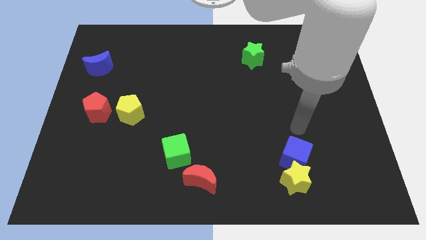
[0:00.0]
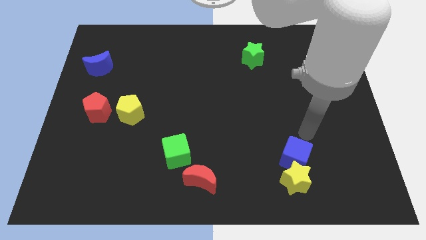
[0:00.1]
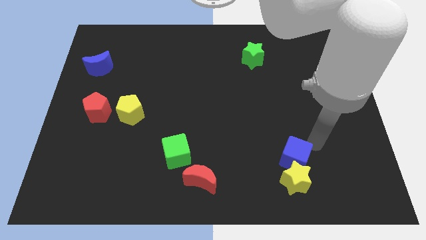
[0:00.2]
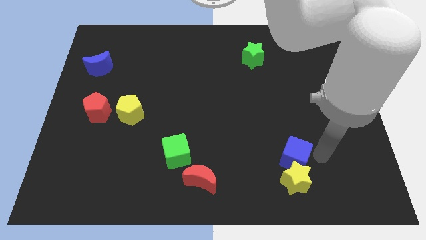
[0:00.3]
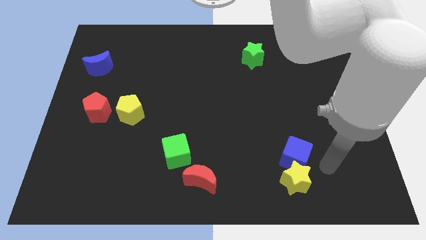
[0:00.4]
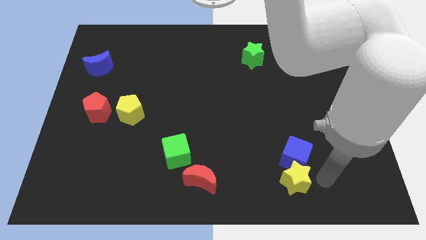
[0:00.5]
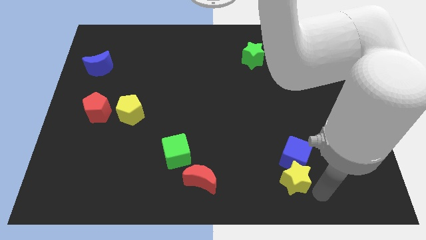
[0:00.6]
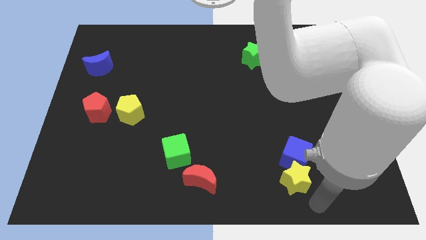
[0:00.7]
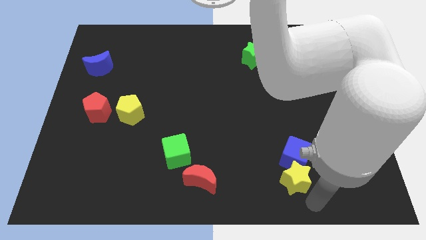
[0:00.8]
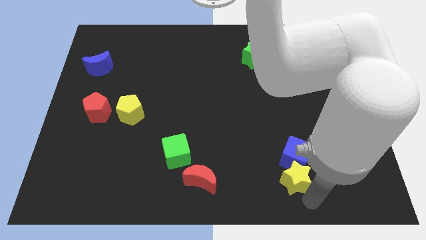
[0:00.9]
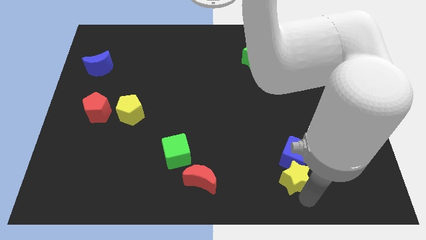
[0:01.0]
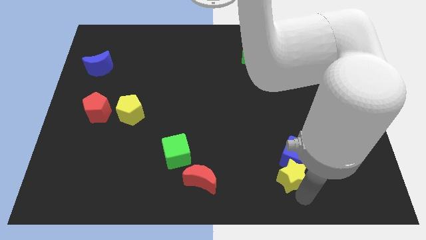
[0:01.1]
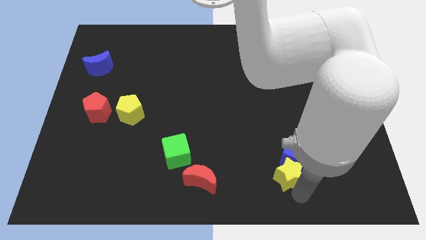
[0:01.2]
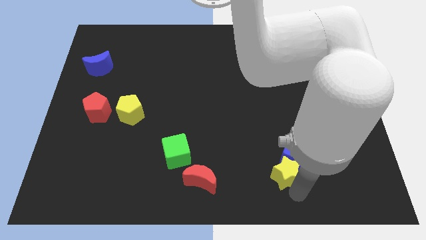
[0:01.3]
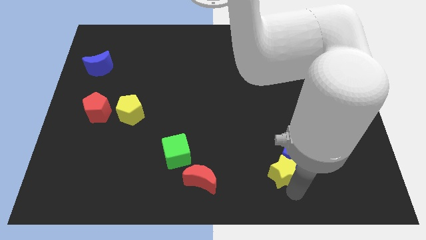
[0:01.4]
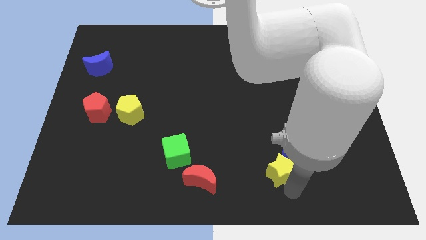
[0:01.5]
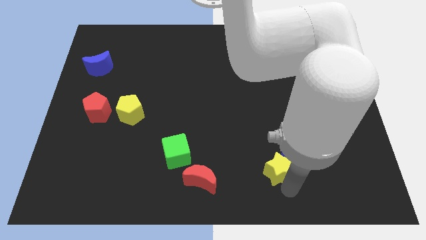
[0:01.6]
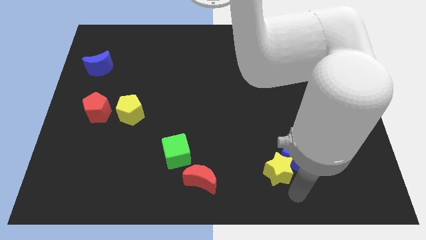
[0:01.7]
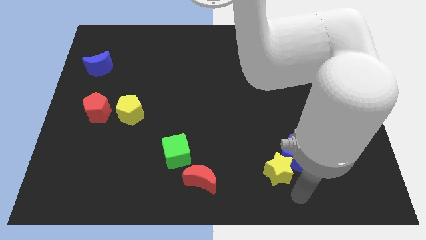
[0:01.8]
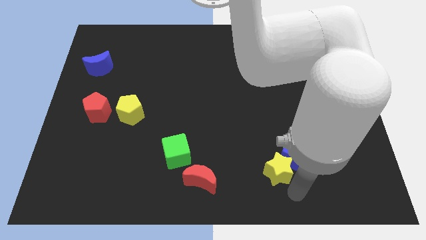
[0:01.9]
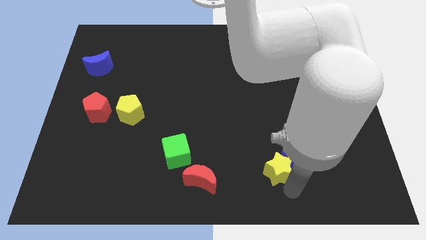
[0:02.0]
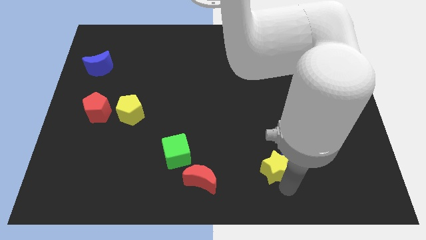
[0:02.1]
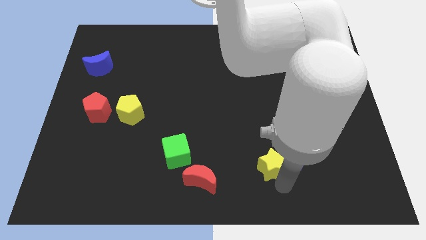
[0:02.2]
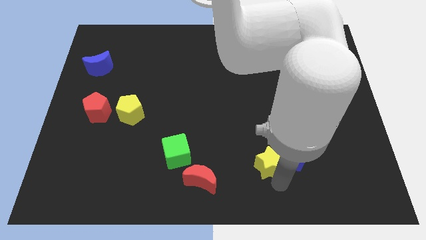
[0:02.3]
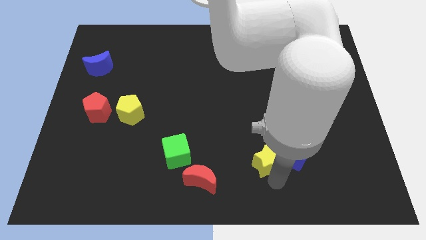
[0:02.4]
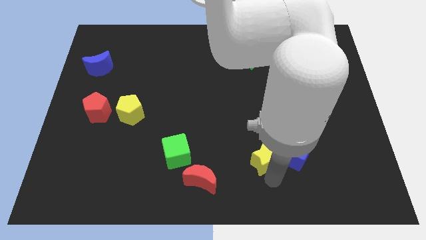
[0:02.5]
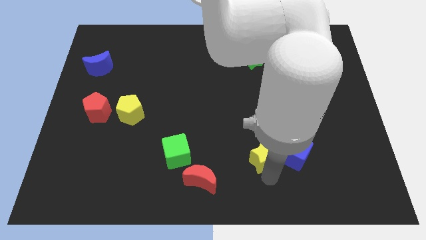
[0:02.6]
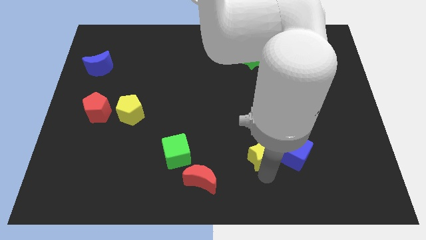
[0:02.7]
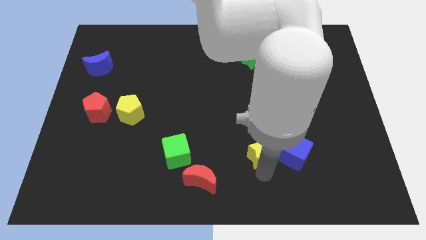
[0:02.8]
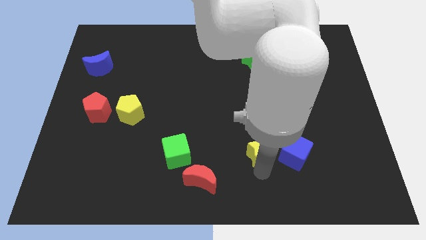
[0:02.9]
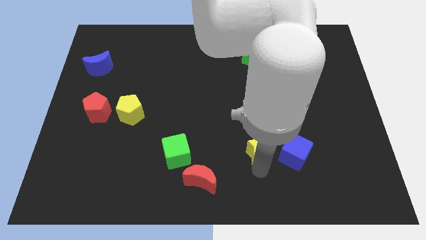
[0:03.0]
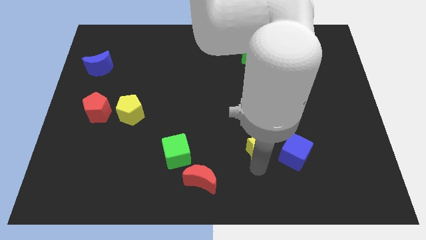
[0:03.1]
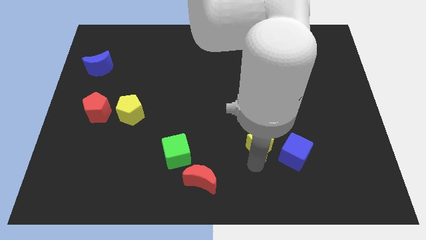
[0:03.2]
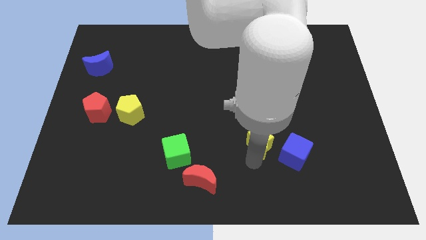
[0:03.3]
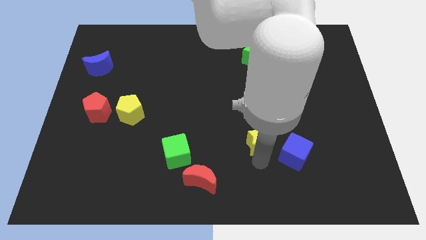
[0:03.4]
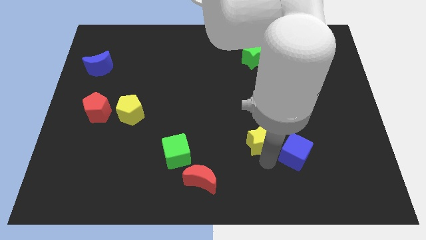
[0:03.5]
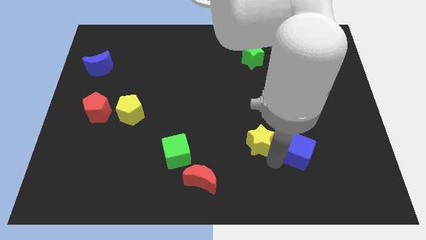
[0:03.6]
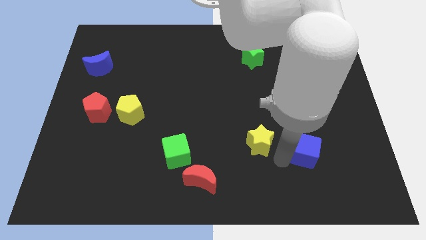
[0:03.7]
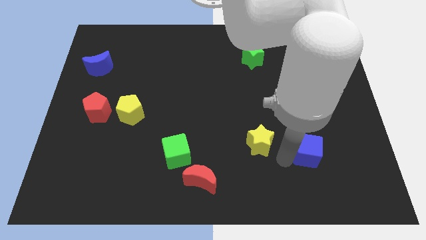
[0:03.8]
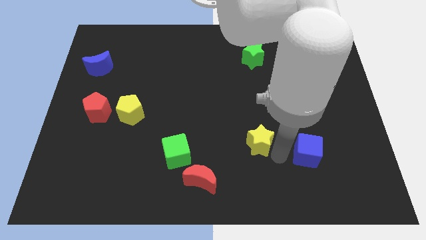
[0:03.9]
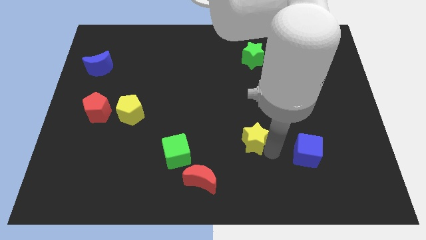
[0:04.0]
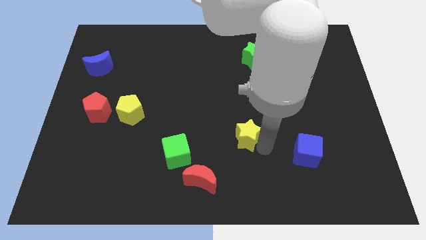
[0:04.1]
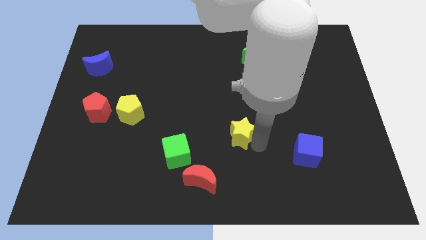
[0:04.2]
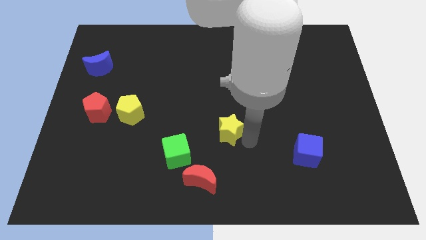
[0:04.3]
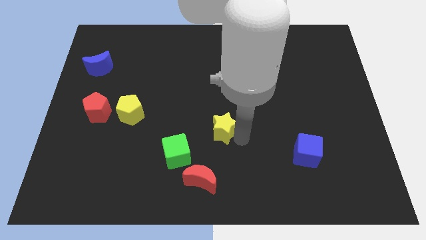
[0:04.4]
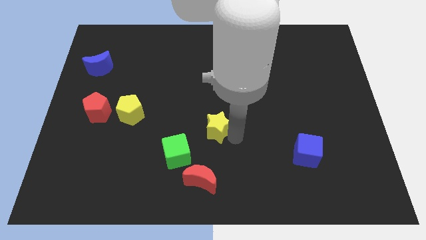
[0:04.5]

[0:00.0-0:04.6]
move the yellow star upwards and left diagonally

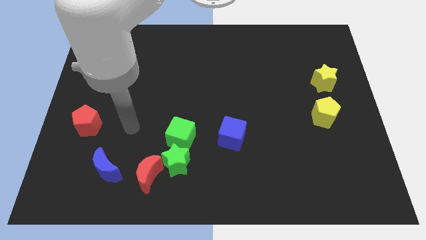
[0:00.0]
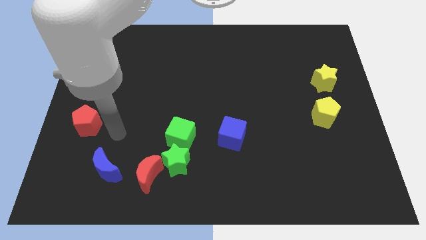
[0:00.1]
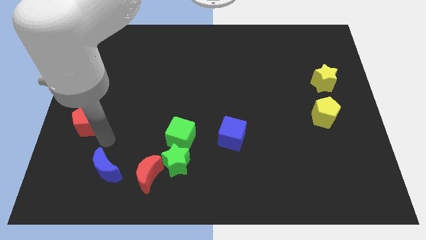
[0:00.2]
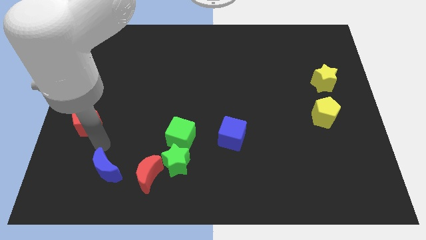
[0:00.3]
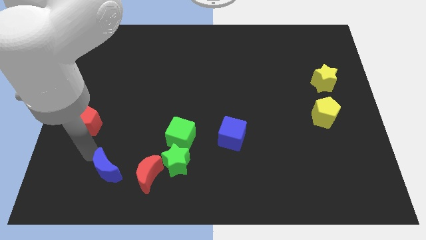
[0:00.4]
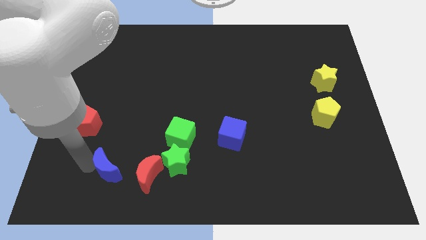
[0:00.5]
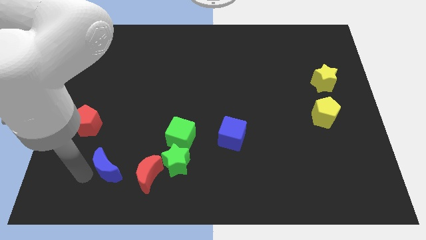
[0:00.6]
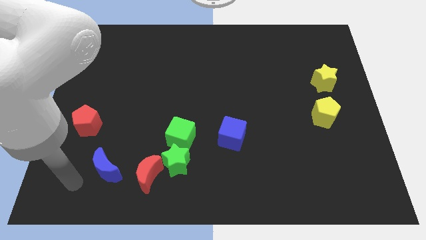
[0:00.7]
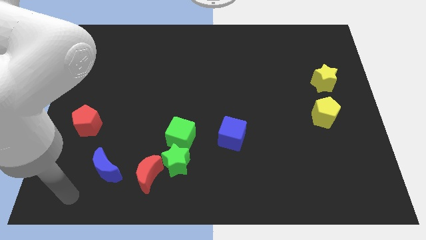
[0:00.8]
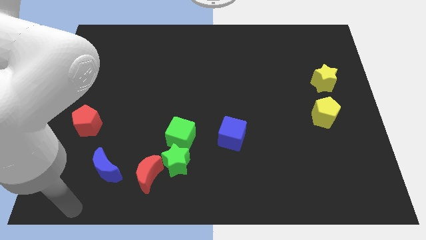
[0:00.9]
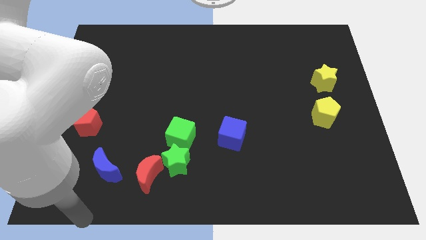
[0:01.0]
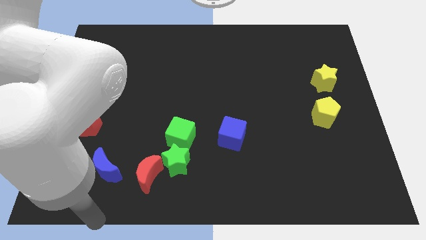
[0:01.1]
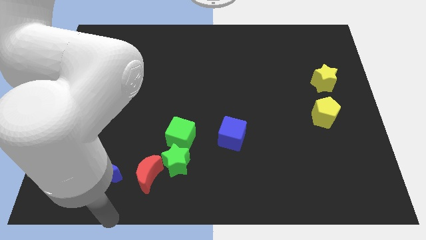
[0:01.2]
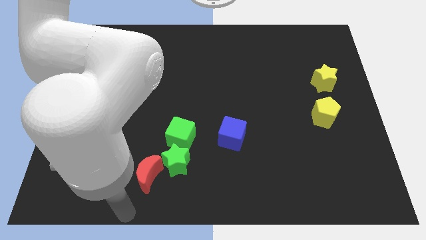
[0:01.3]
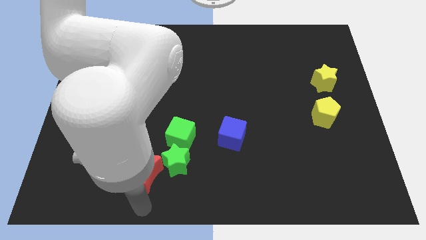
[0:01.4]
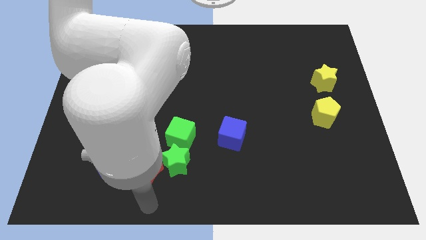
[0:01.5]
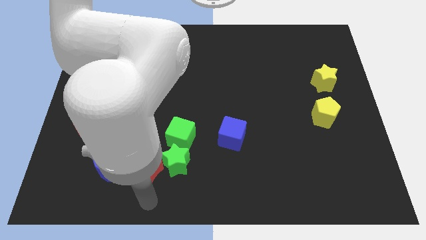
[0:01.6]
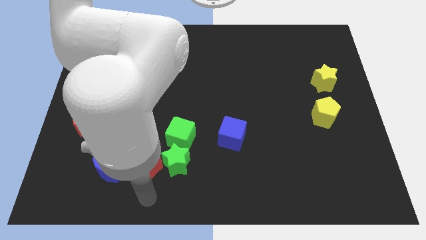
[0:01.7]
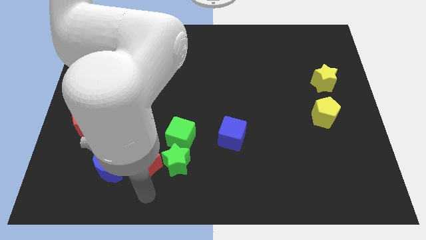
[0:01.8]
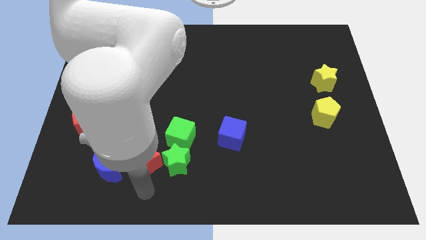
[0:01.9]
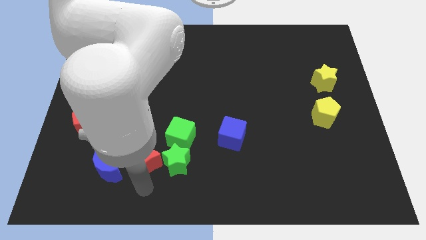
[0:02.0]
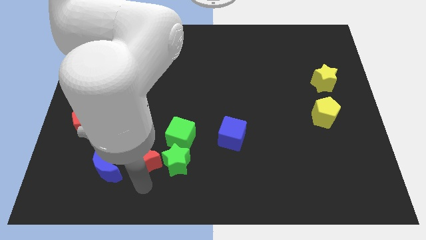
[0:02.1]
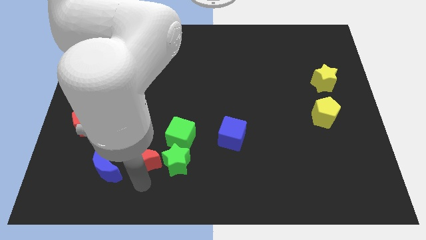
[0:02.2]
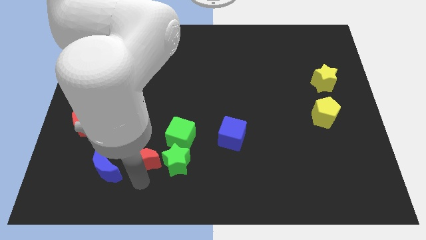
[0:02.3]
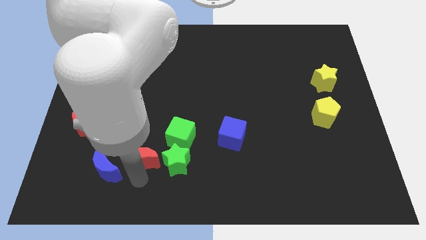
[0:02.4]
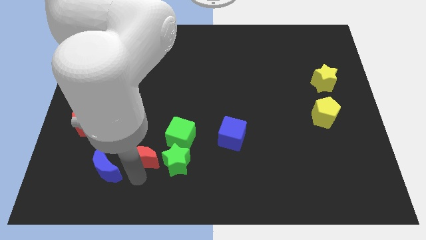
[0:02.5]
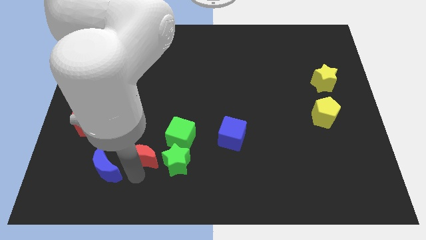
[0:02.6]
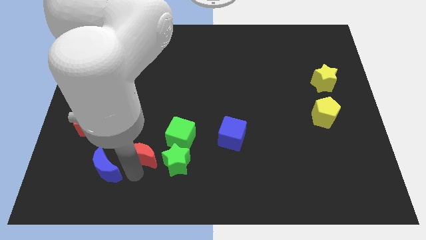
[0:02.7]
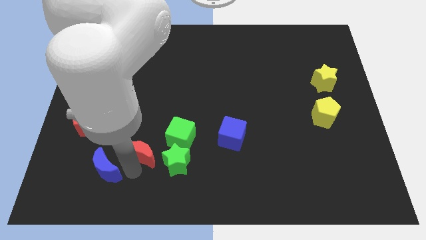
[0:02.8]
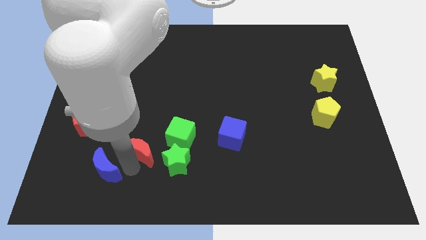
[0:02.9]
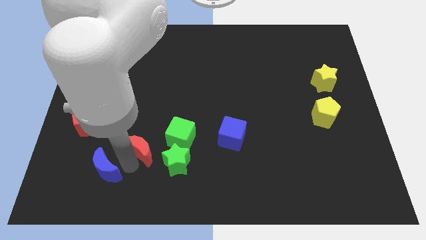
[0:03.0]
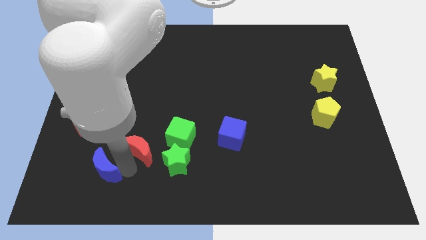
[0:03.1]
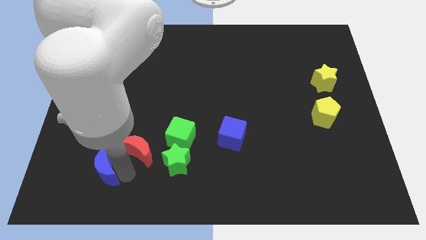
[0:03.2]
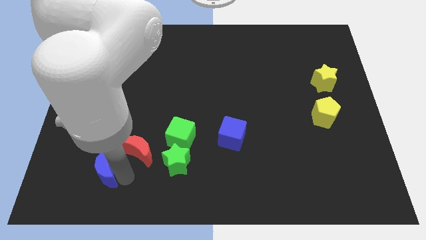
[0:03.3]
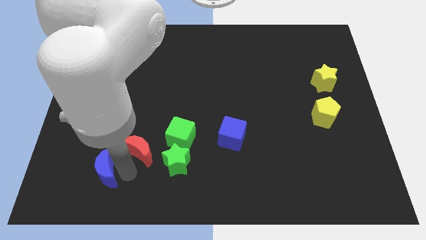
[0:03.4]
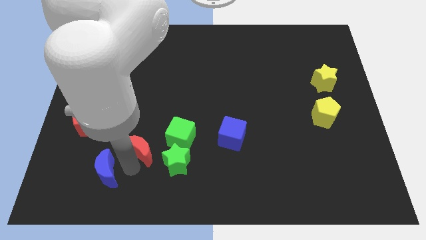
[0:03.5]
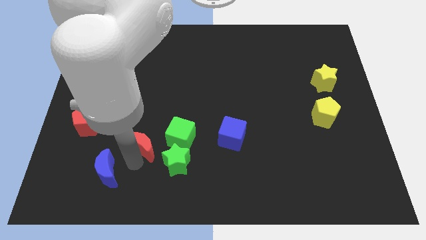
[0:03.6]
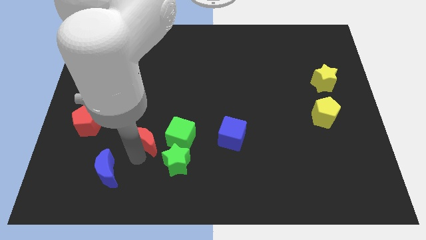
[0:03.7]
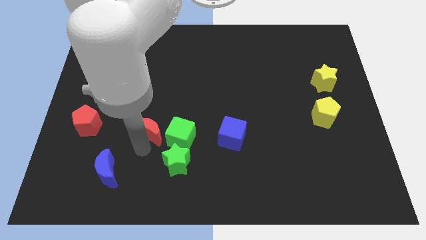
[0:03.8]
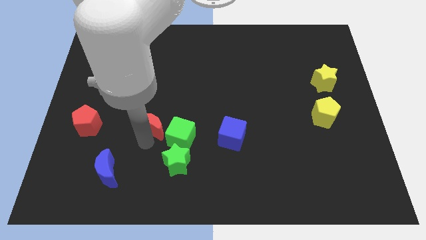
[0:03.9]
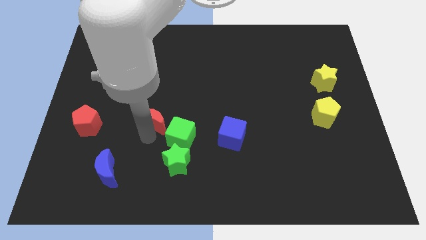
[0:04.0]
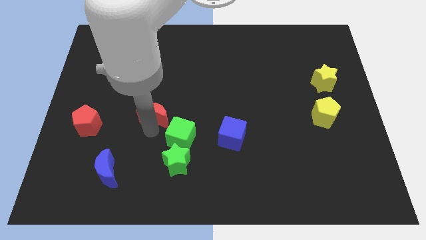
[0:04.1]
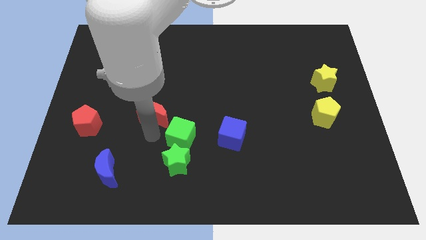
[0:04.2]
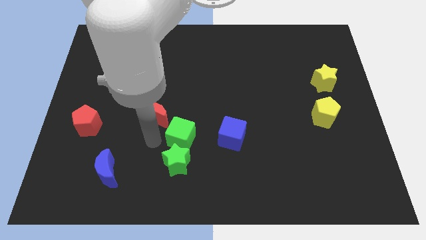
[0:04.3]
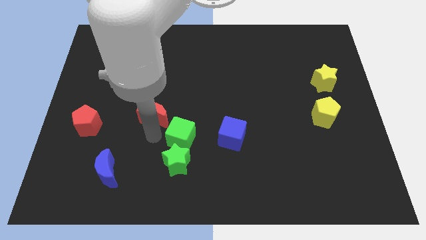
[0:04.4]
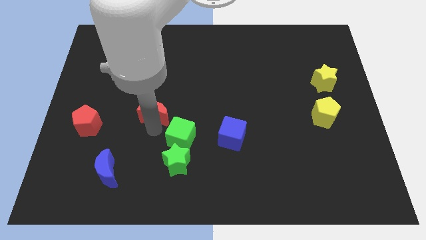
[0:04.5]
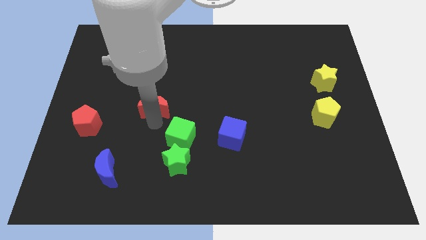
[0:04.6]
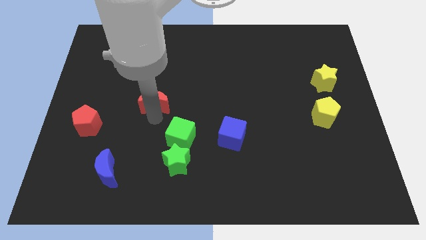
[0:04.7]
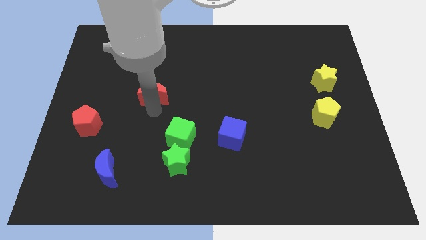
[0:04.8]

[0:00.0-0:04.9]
slide the red moon up
